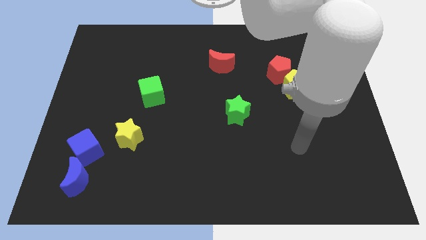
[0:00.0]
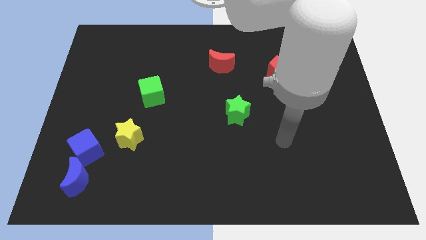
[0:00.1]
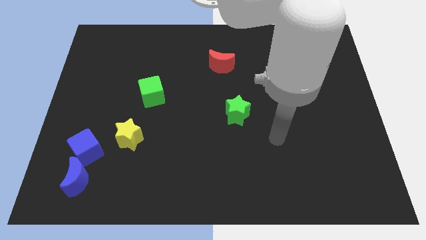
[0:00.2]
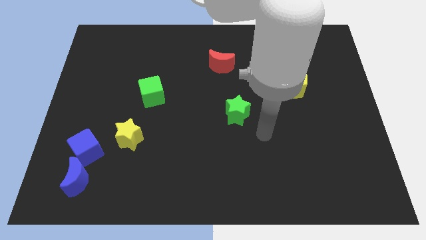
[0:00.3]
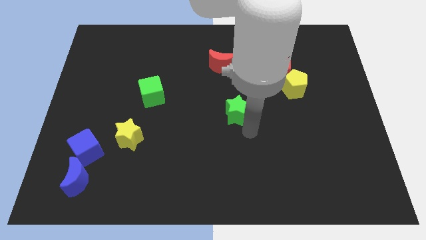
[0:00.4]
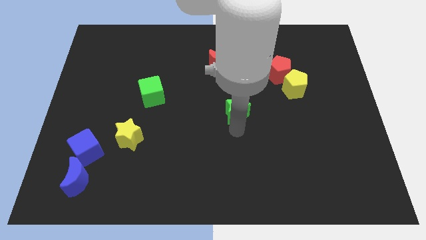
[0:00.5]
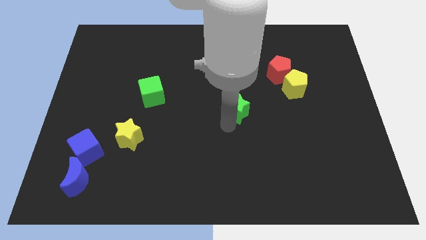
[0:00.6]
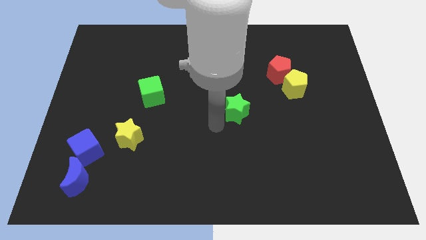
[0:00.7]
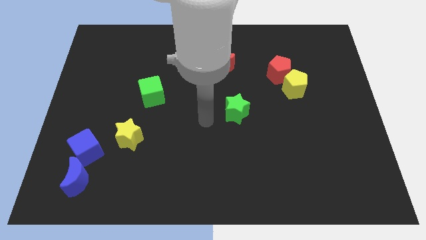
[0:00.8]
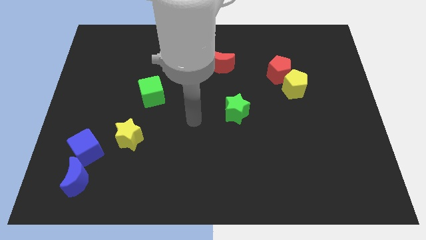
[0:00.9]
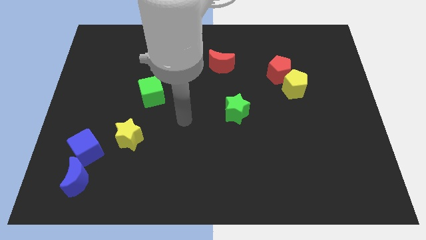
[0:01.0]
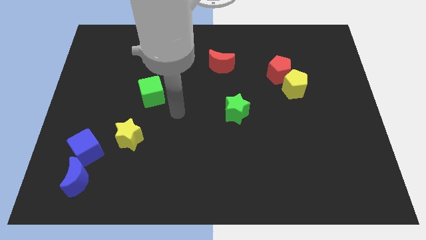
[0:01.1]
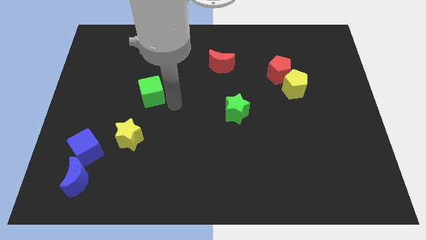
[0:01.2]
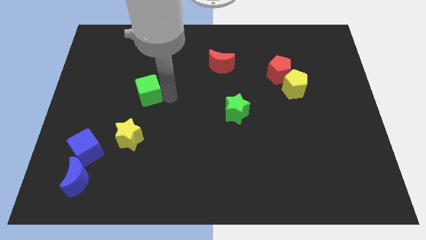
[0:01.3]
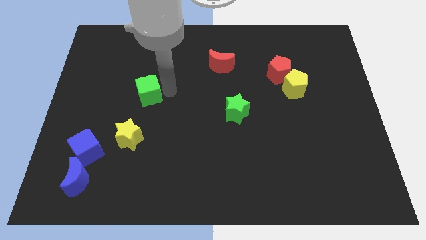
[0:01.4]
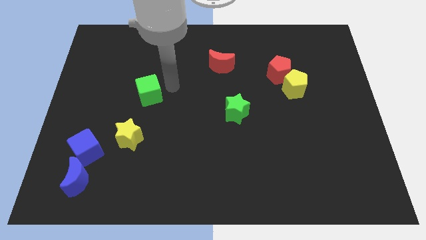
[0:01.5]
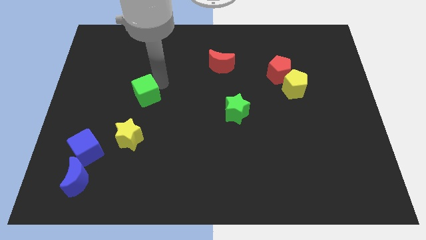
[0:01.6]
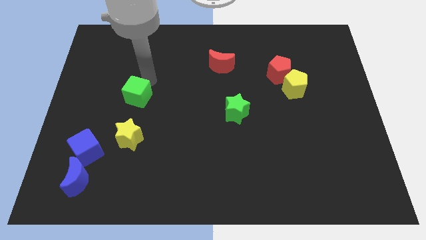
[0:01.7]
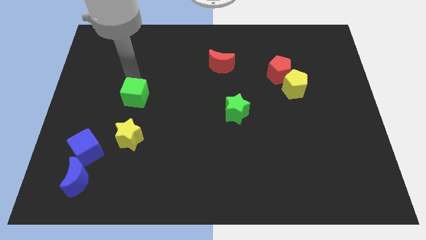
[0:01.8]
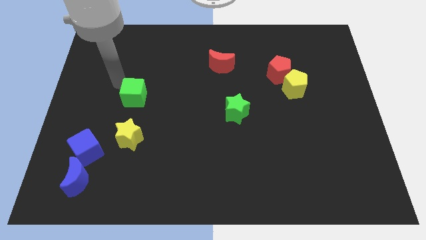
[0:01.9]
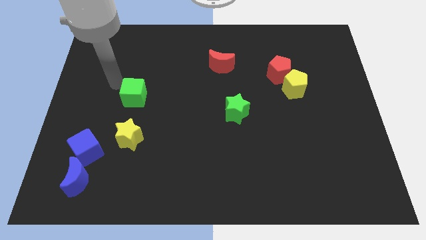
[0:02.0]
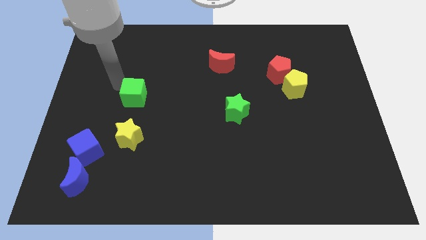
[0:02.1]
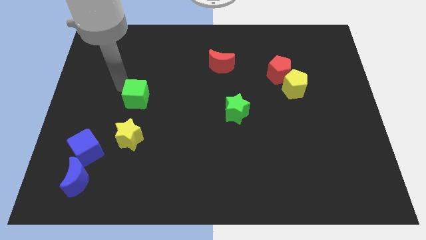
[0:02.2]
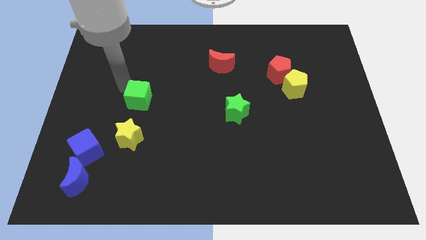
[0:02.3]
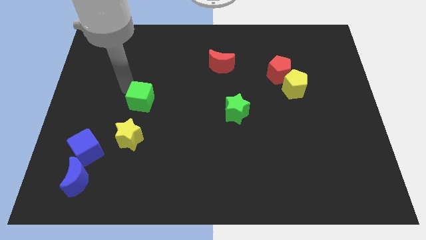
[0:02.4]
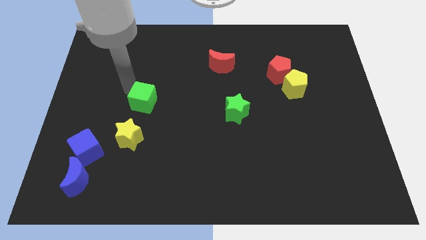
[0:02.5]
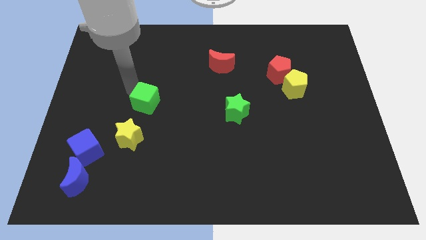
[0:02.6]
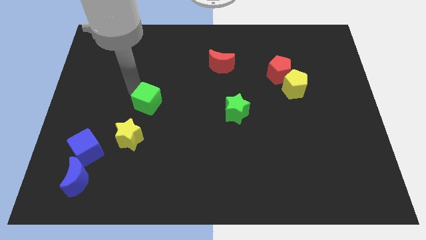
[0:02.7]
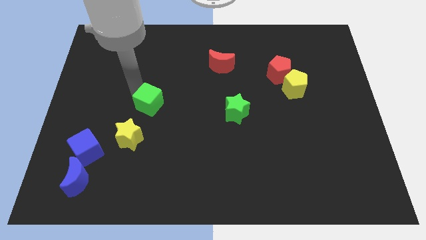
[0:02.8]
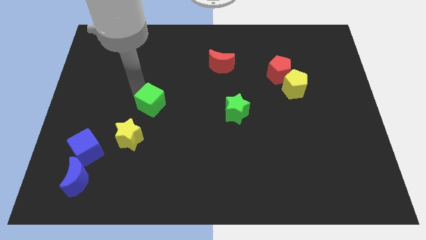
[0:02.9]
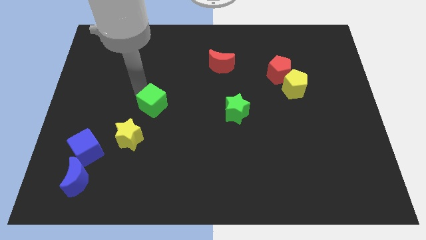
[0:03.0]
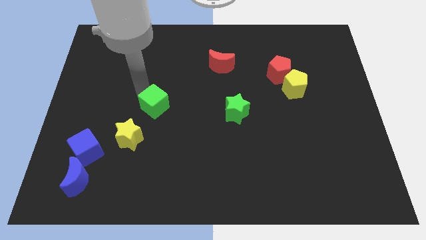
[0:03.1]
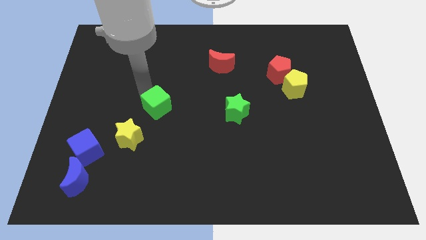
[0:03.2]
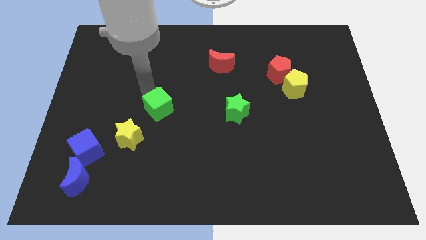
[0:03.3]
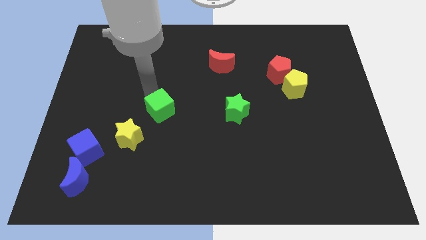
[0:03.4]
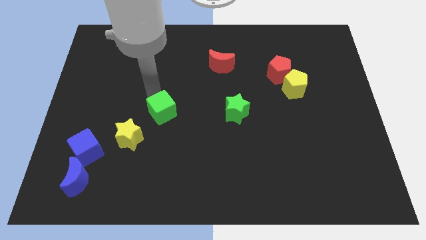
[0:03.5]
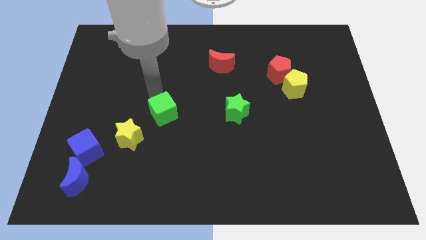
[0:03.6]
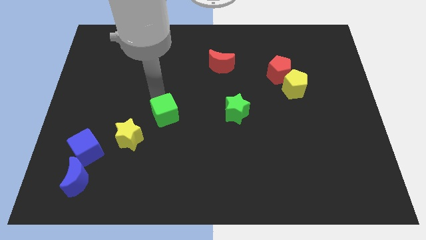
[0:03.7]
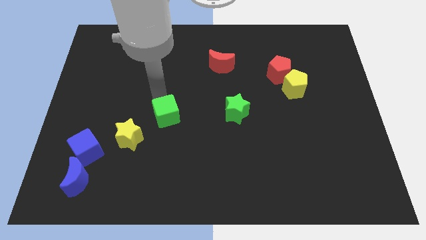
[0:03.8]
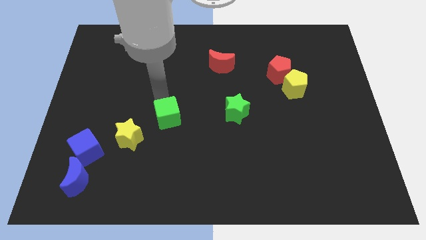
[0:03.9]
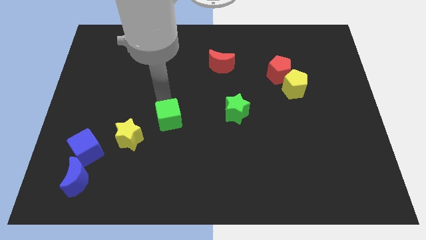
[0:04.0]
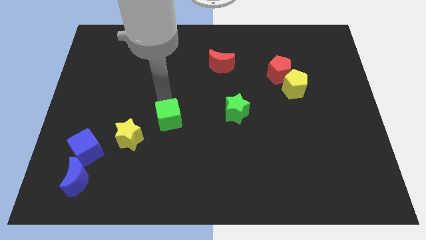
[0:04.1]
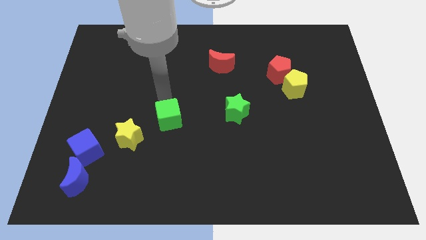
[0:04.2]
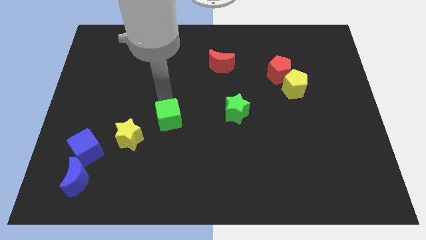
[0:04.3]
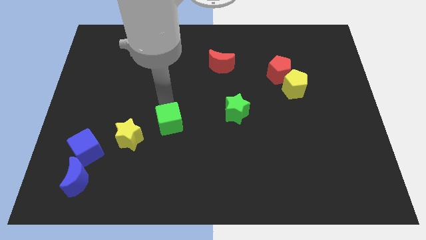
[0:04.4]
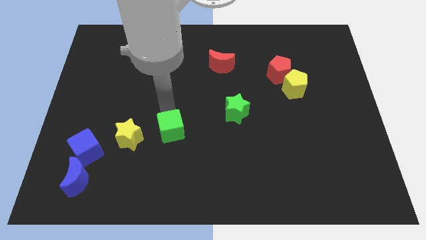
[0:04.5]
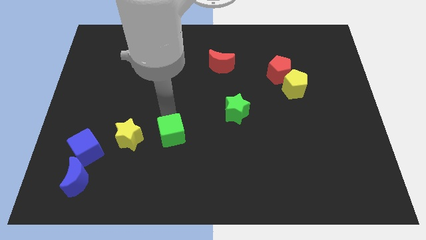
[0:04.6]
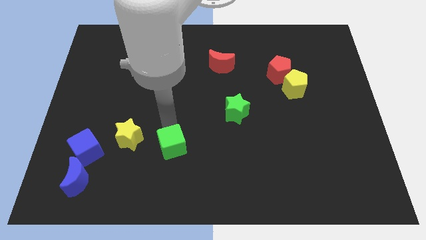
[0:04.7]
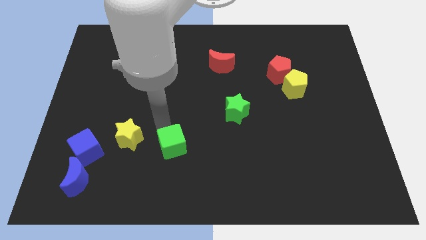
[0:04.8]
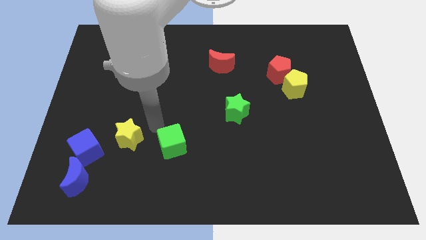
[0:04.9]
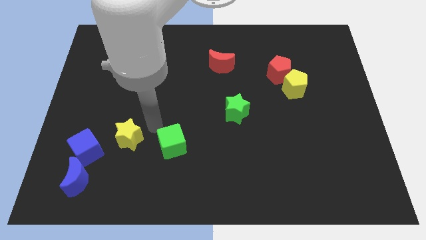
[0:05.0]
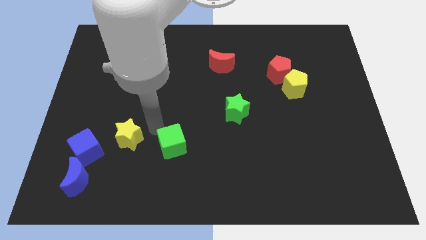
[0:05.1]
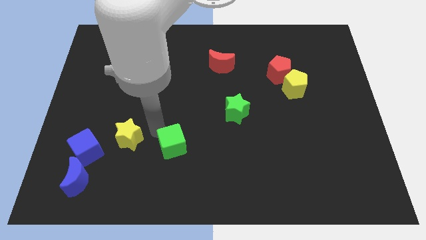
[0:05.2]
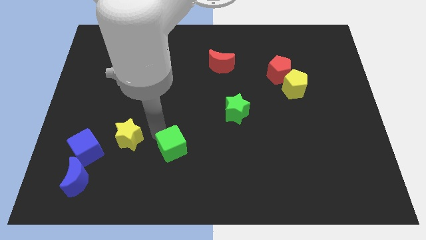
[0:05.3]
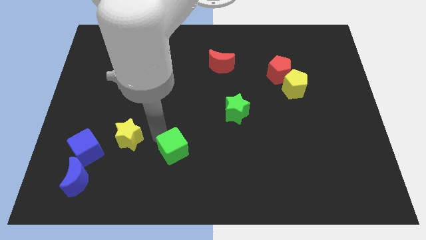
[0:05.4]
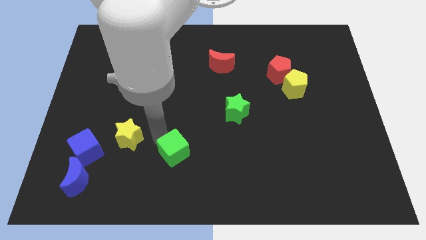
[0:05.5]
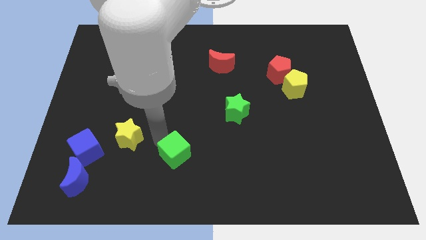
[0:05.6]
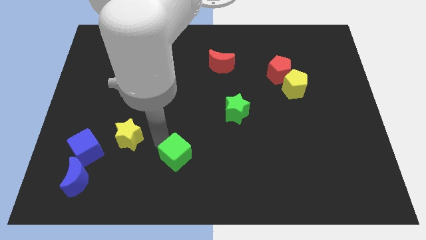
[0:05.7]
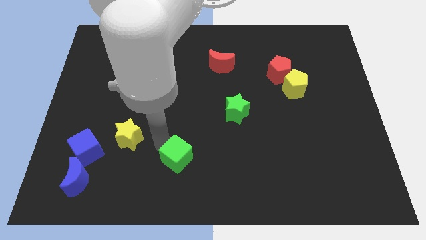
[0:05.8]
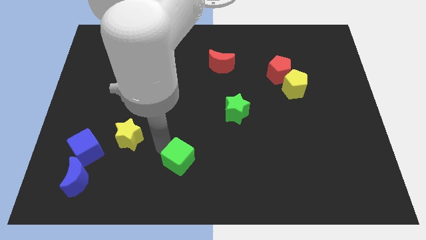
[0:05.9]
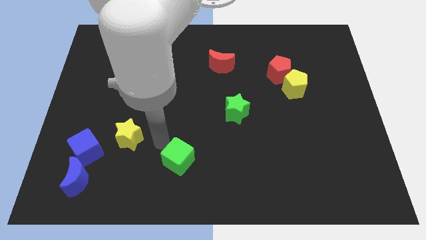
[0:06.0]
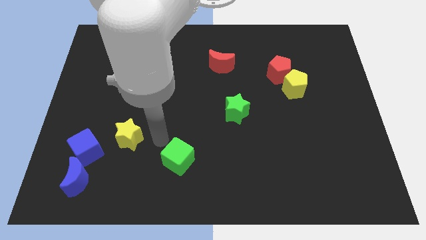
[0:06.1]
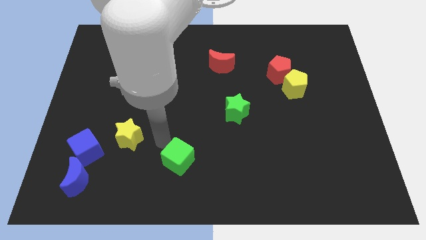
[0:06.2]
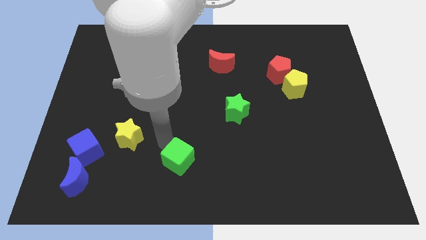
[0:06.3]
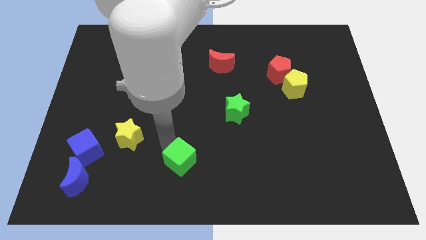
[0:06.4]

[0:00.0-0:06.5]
move the green cube to the bottom side
